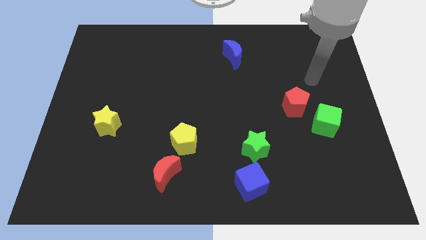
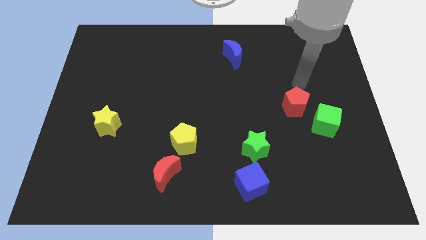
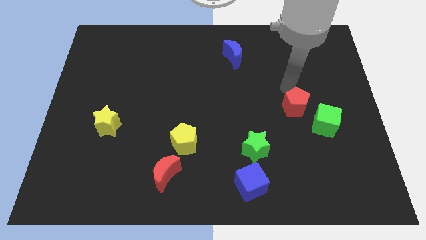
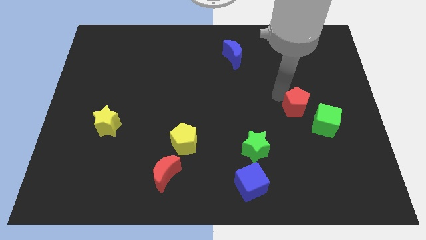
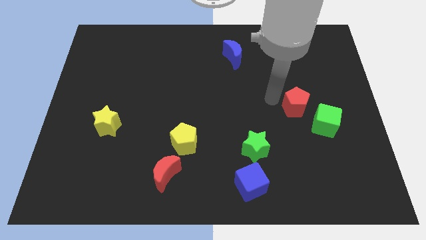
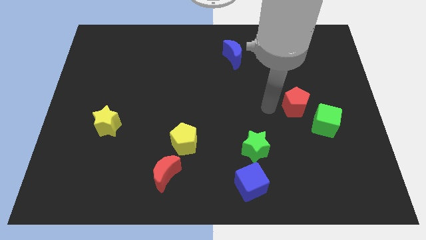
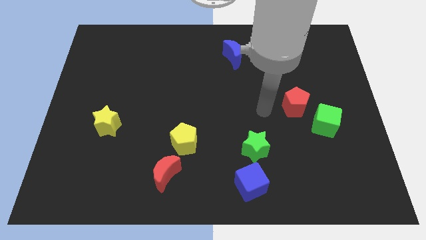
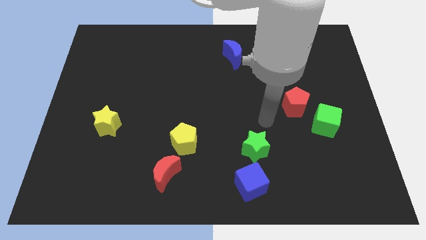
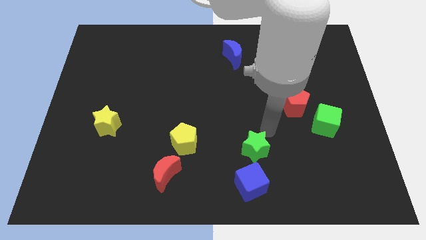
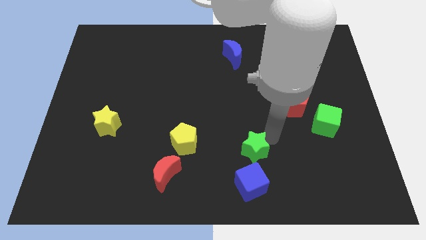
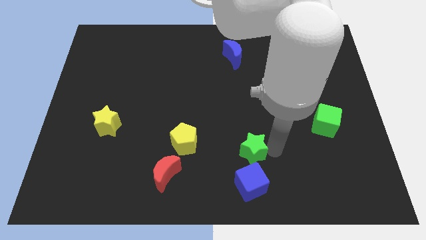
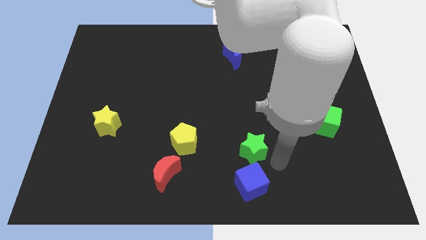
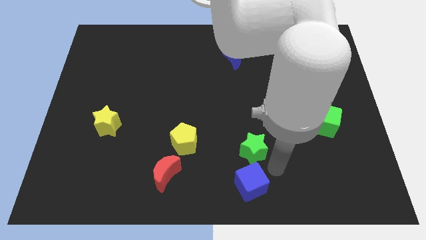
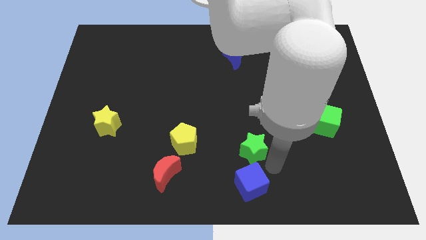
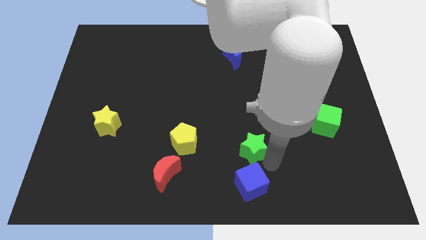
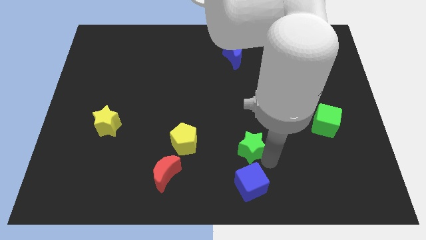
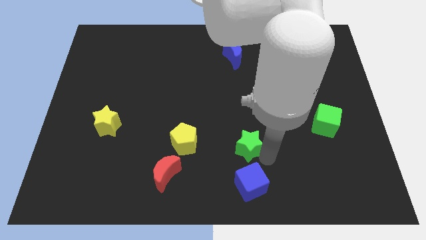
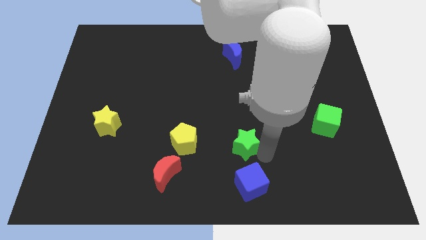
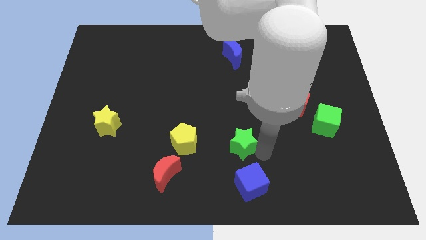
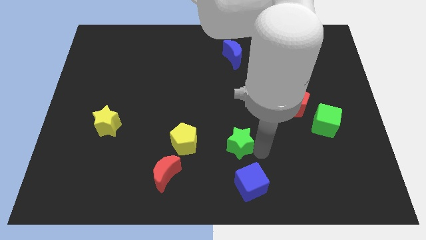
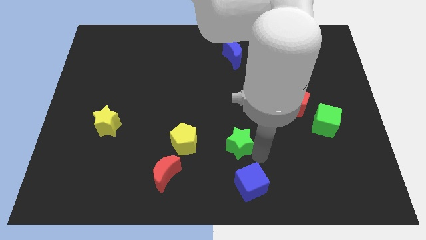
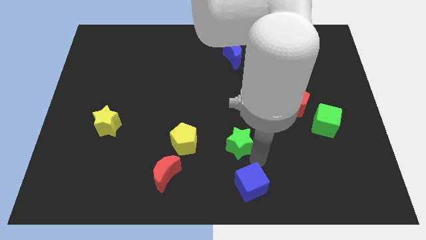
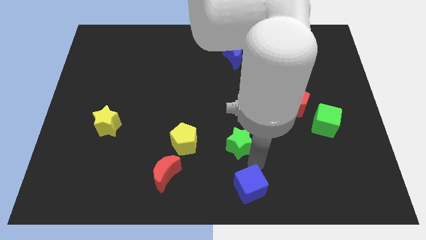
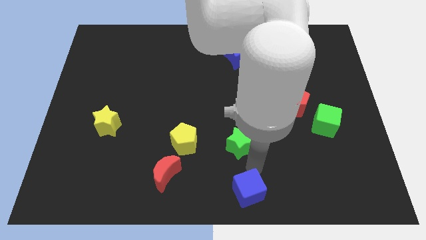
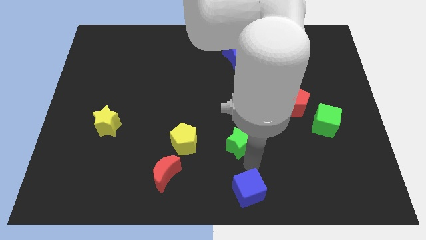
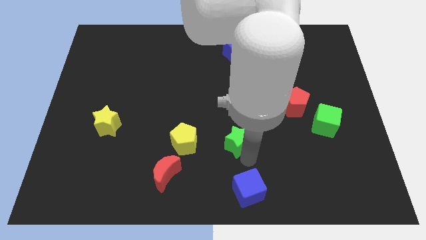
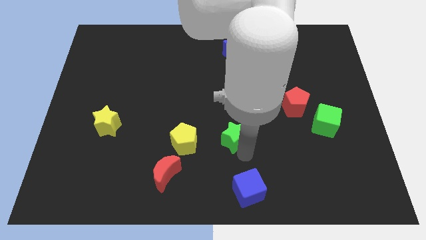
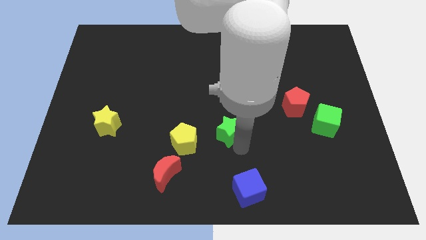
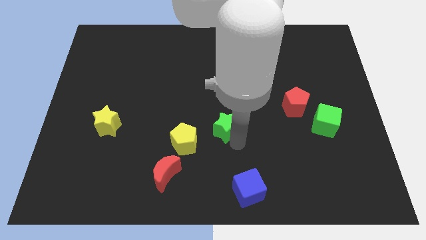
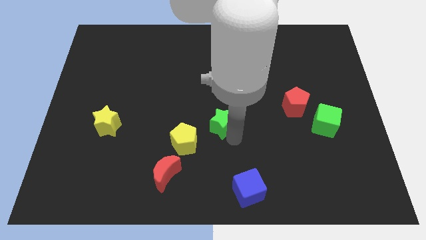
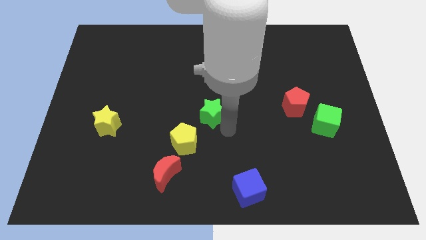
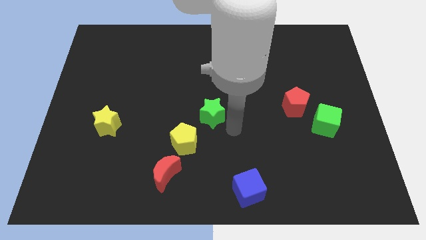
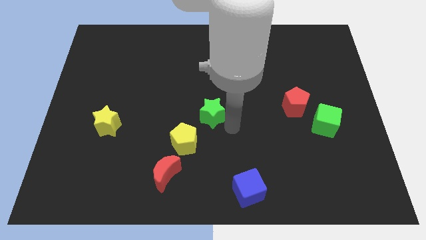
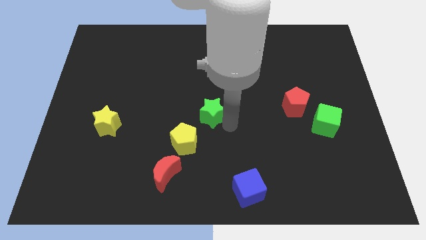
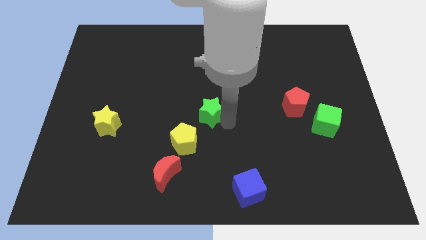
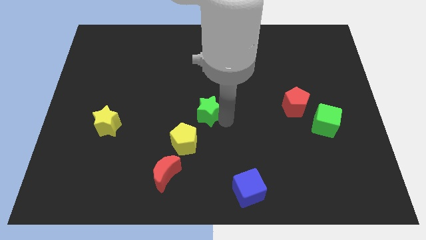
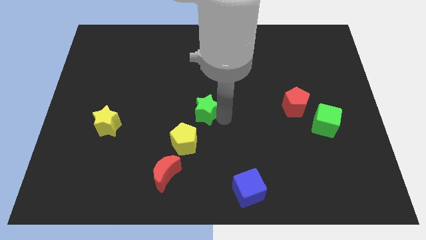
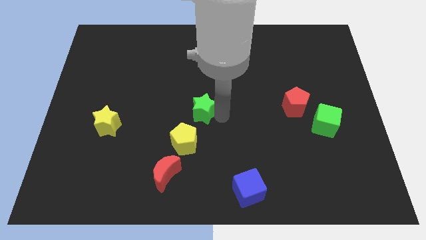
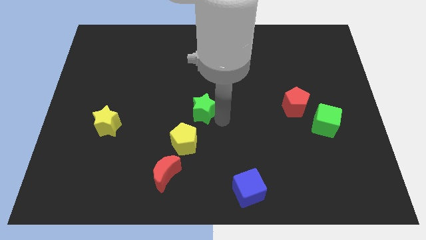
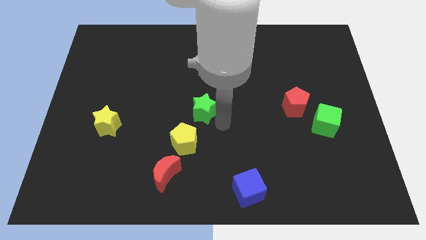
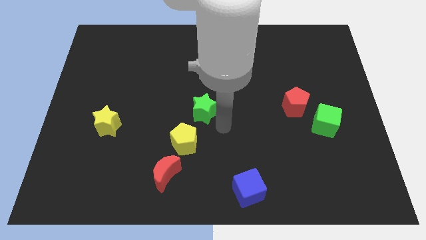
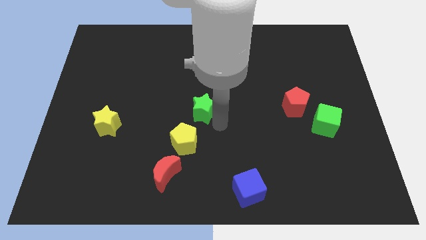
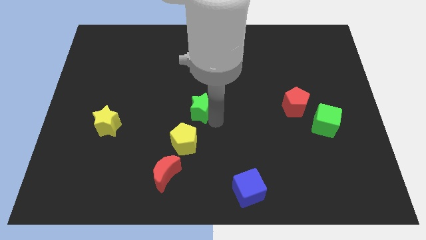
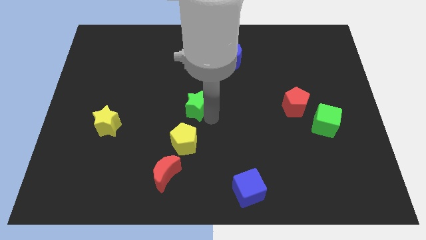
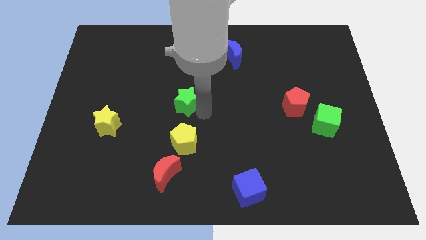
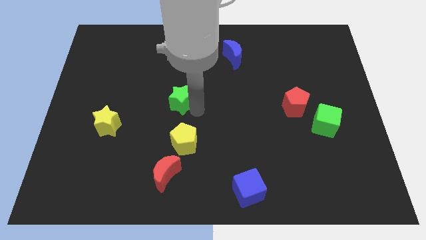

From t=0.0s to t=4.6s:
push the green star diagonally upwards and left

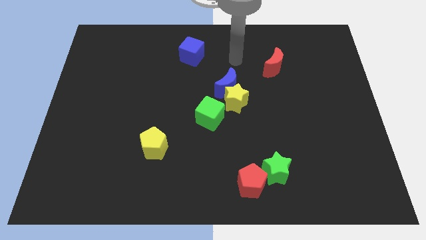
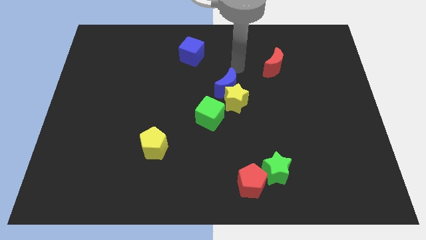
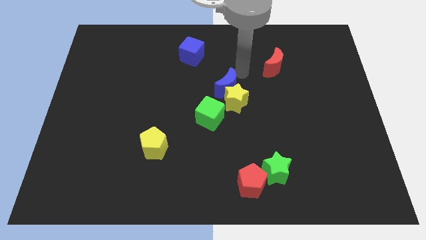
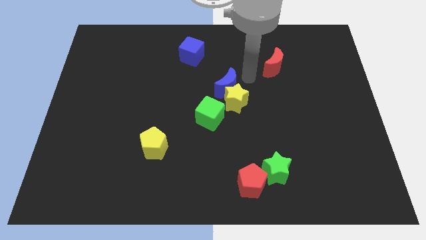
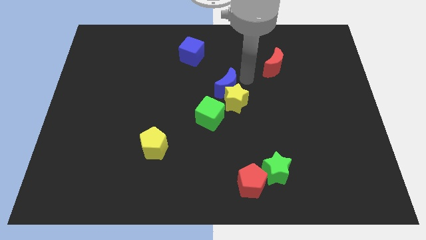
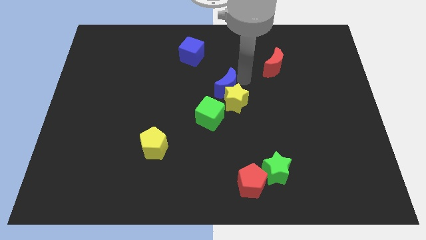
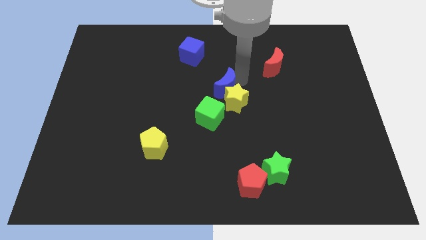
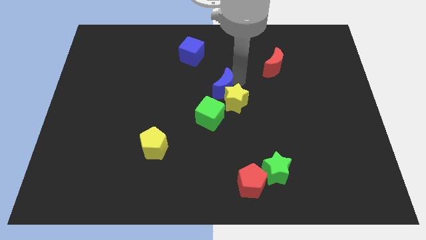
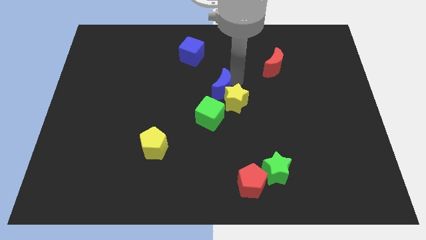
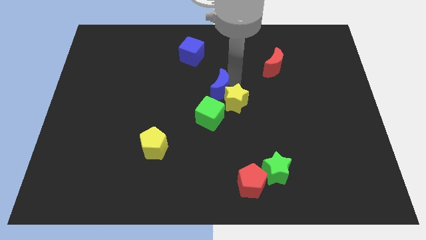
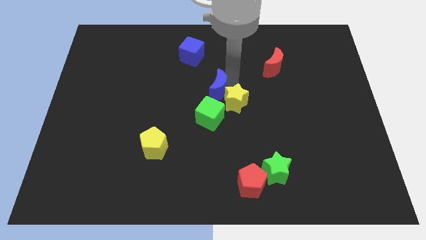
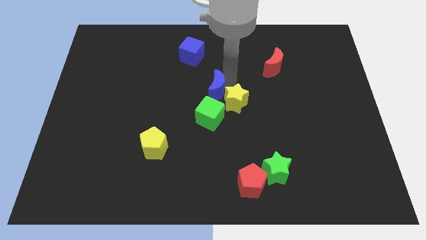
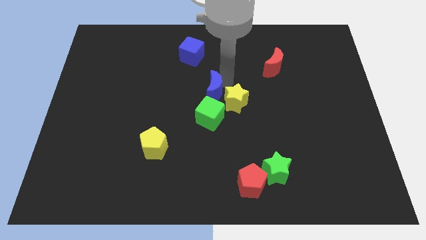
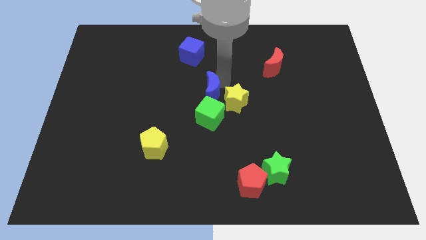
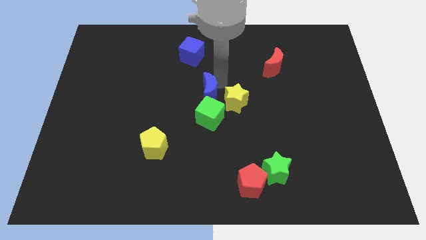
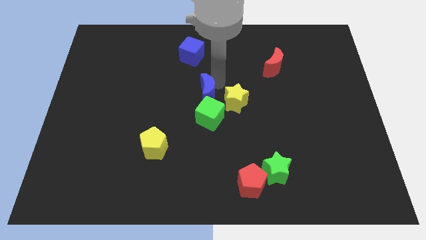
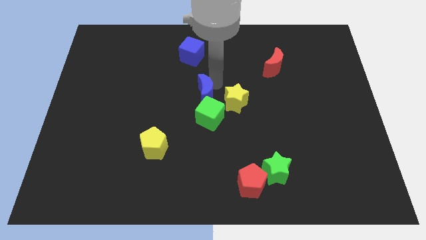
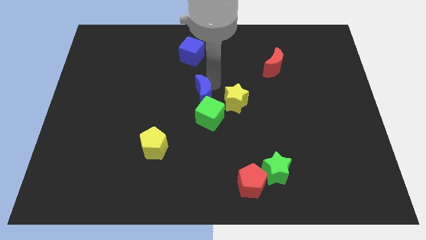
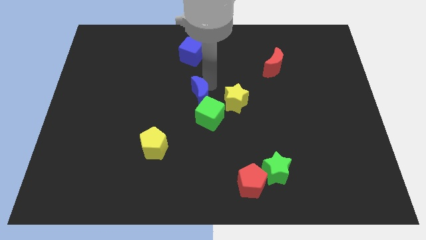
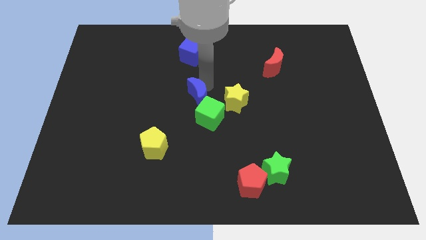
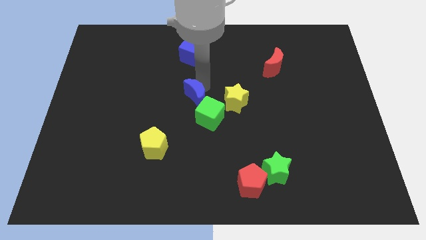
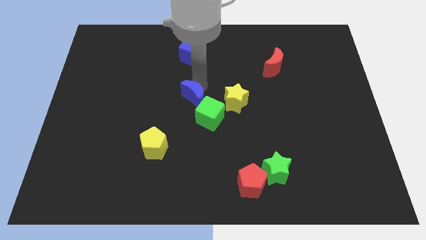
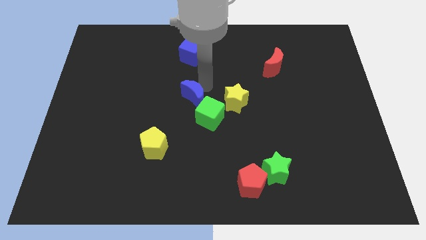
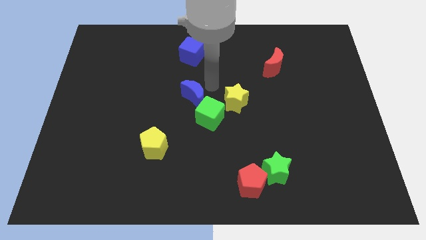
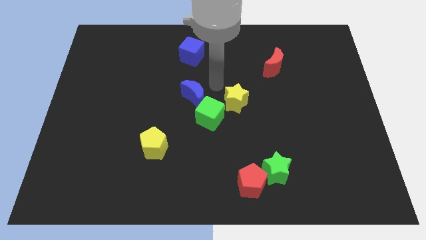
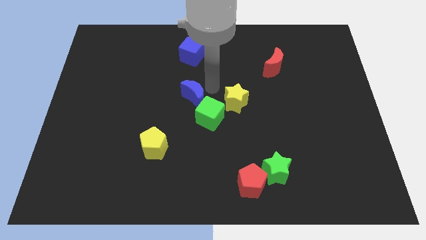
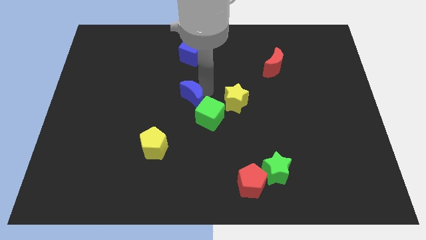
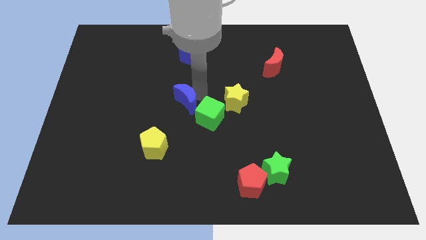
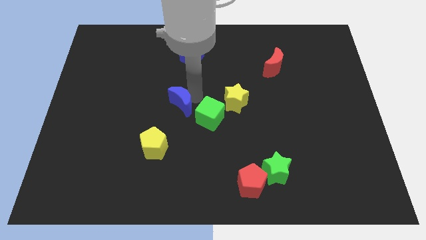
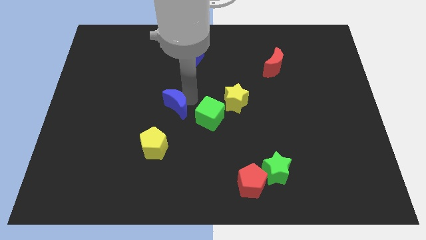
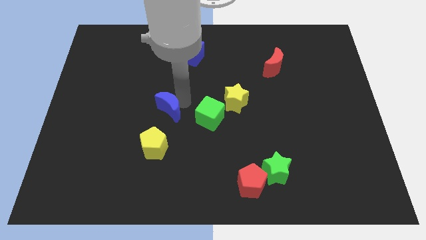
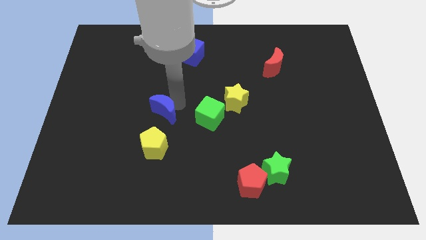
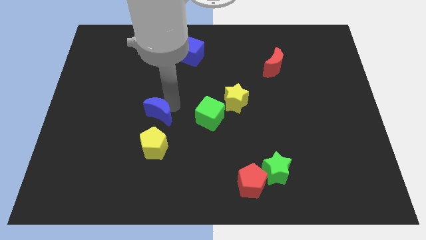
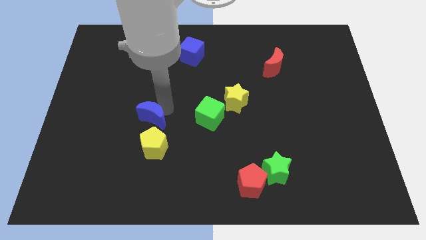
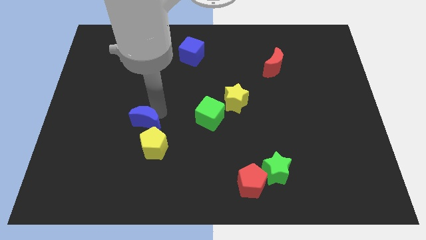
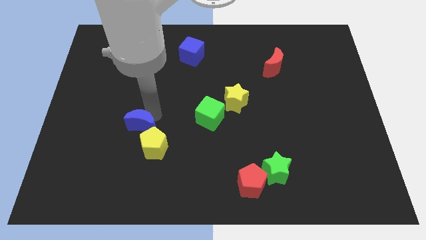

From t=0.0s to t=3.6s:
move the blue moon downwards and to the left diagonally
